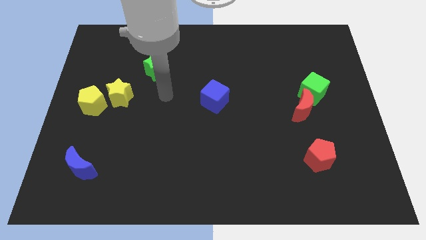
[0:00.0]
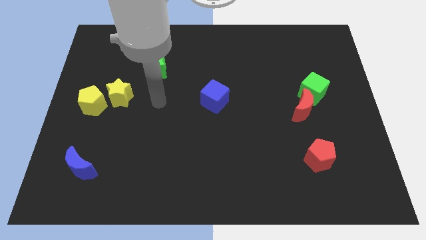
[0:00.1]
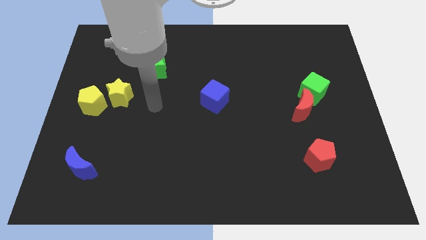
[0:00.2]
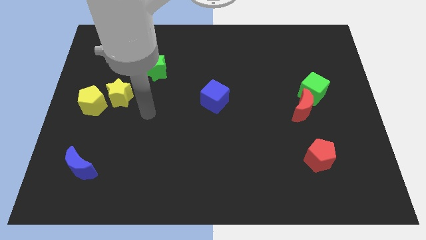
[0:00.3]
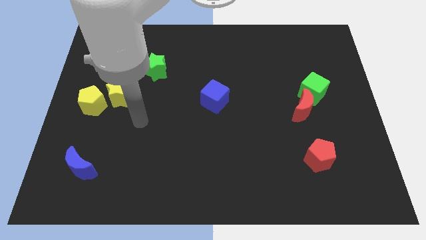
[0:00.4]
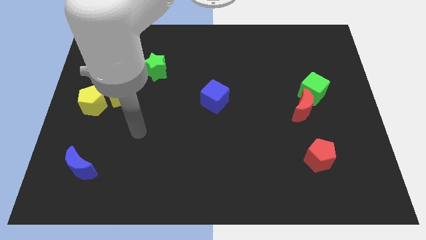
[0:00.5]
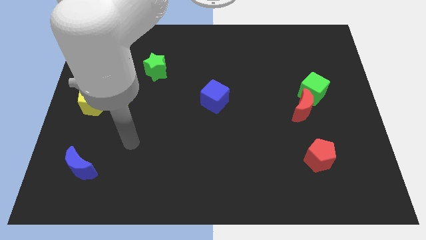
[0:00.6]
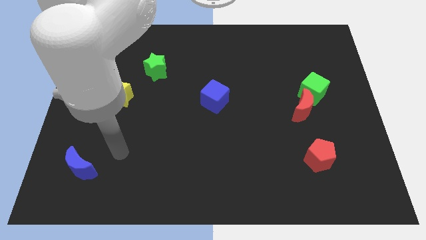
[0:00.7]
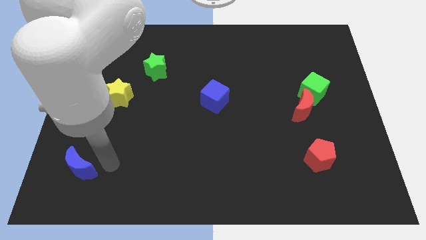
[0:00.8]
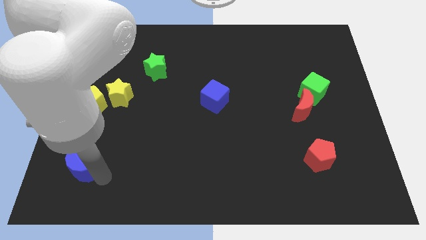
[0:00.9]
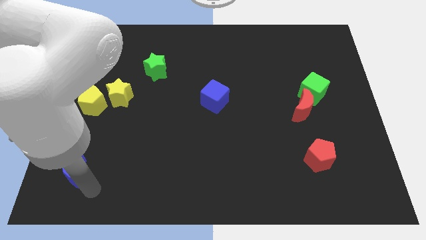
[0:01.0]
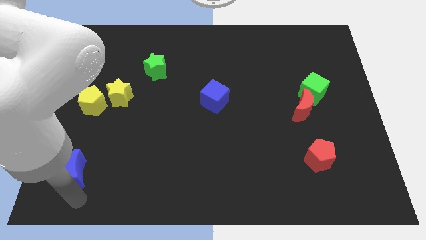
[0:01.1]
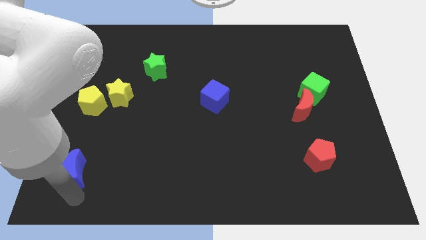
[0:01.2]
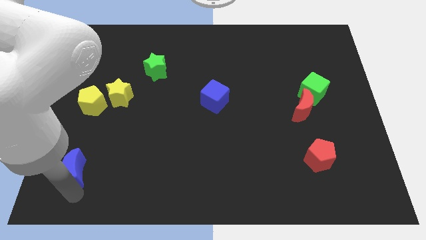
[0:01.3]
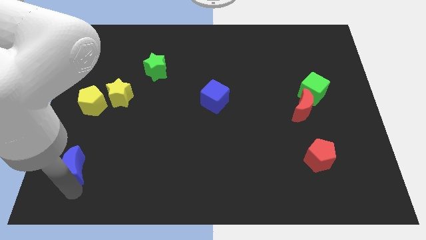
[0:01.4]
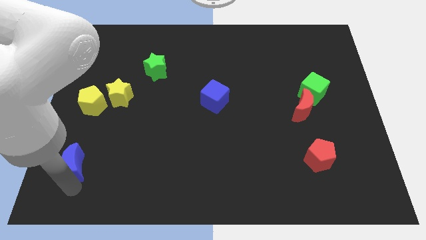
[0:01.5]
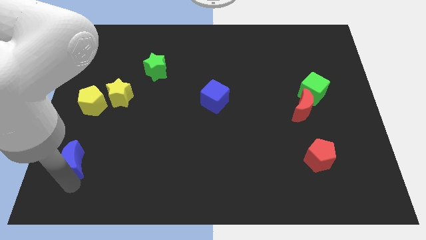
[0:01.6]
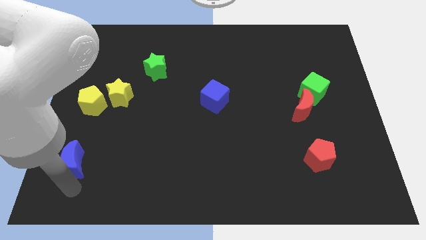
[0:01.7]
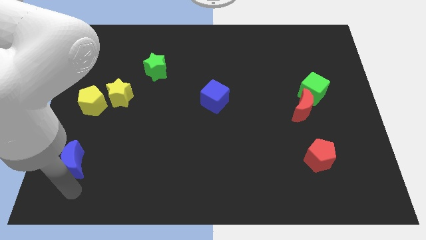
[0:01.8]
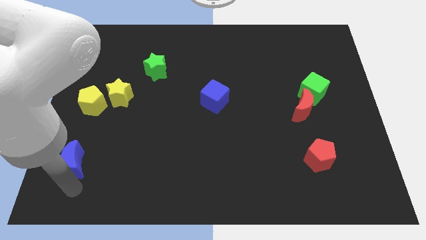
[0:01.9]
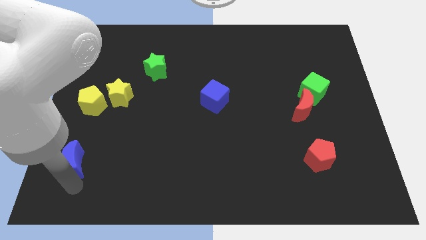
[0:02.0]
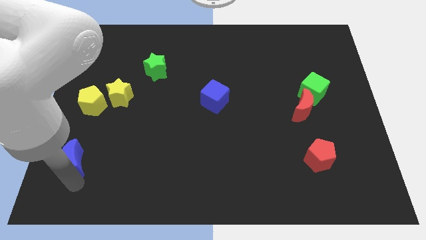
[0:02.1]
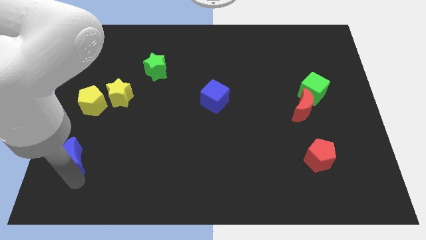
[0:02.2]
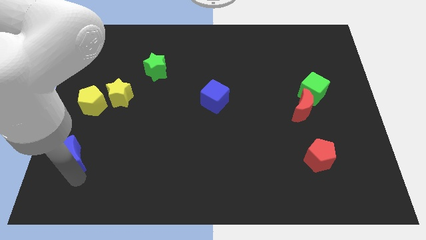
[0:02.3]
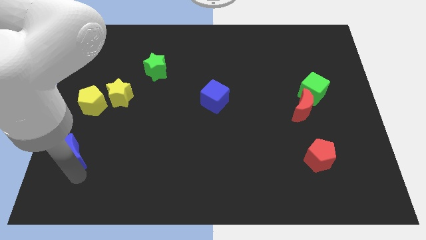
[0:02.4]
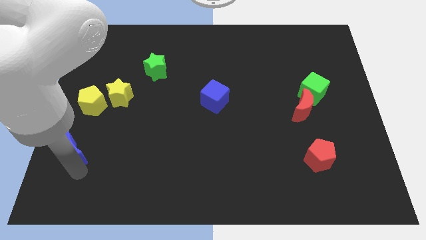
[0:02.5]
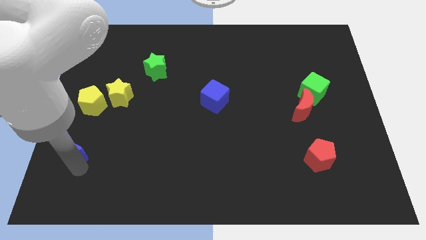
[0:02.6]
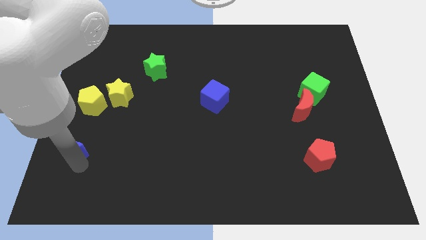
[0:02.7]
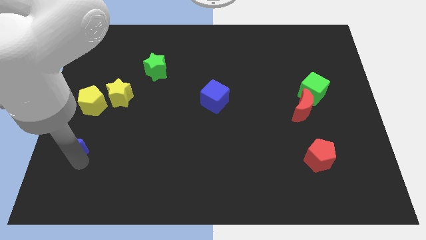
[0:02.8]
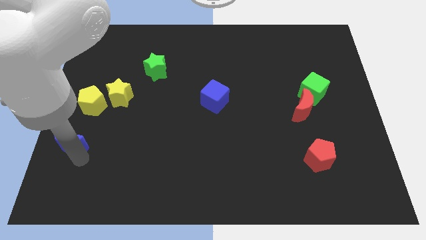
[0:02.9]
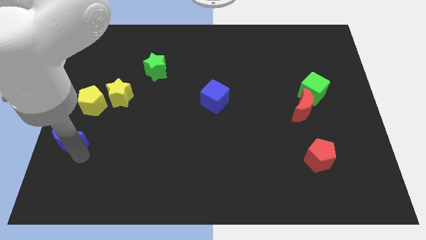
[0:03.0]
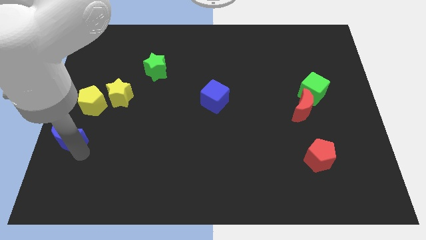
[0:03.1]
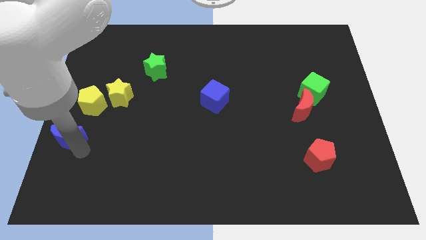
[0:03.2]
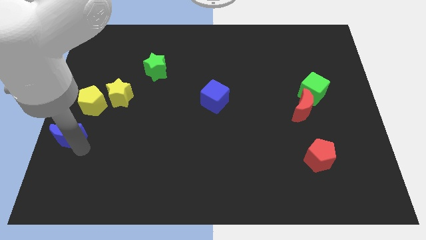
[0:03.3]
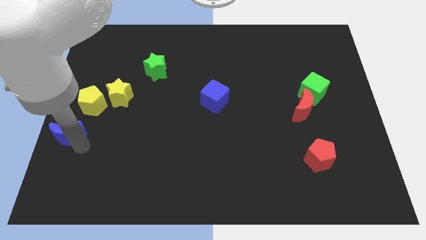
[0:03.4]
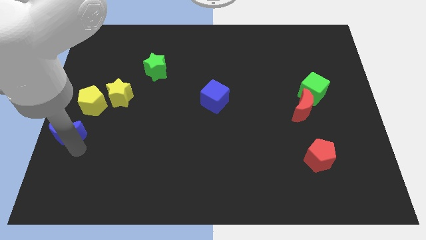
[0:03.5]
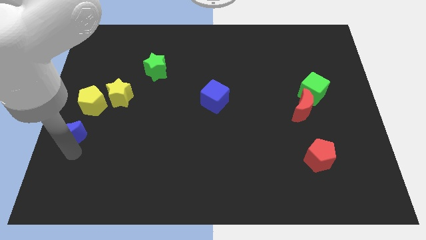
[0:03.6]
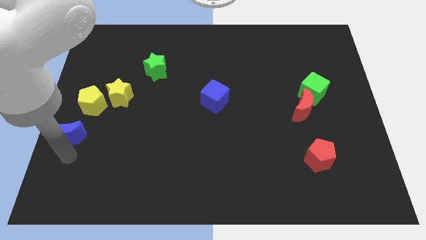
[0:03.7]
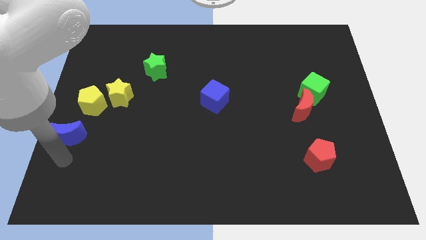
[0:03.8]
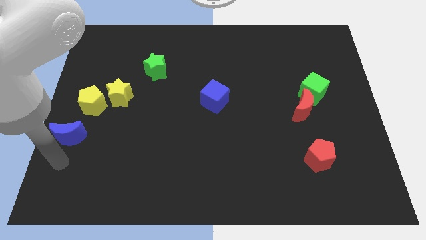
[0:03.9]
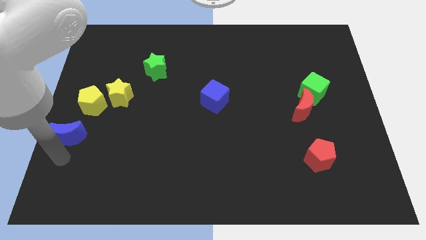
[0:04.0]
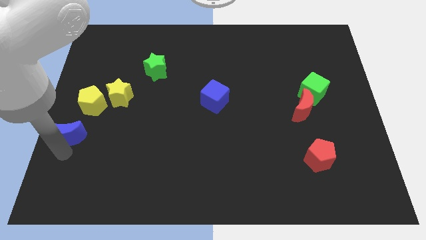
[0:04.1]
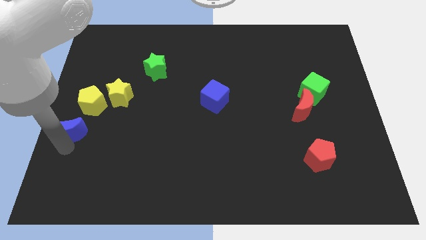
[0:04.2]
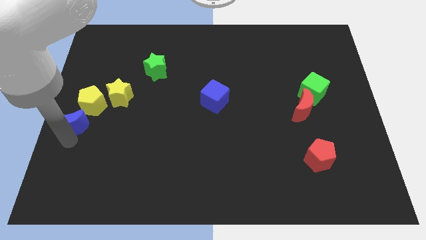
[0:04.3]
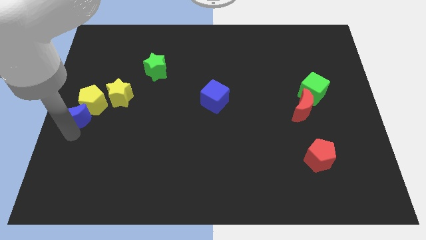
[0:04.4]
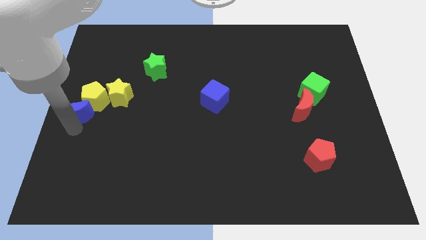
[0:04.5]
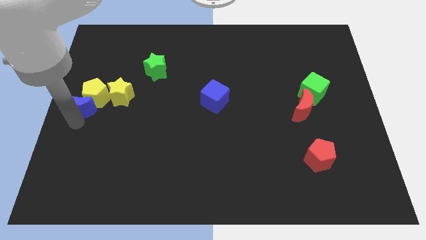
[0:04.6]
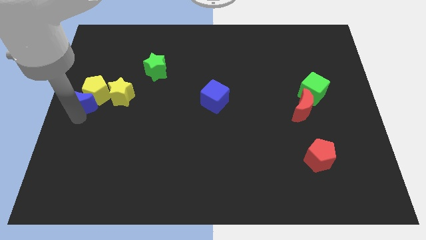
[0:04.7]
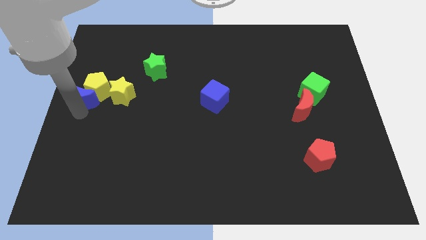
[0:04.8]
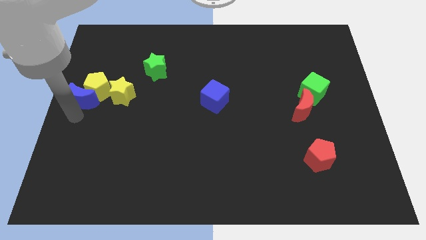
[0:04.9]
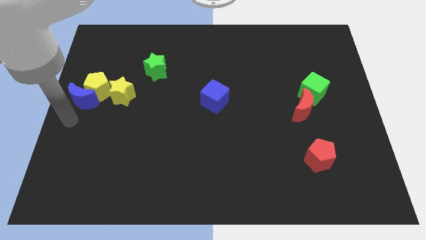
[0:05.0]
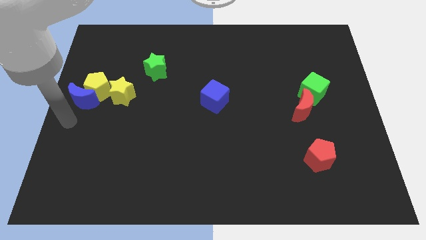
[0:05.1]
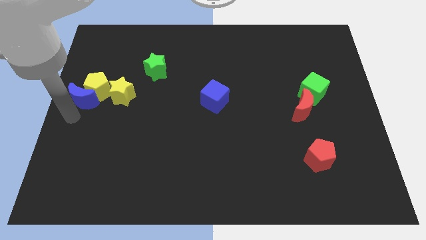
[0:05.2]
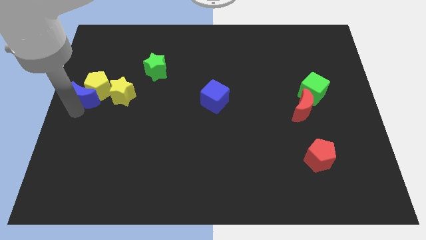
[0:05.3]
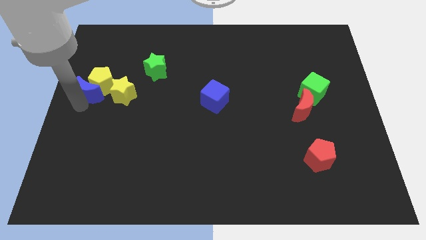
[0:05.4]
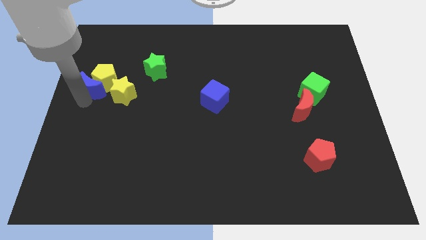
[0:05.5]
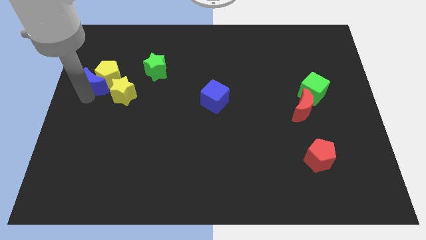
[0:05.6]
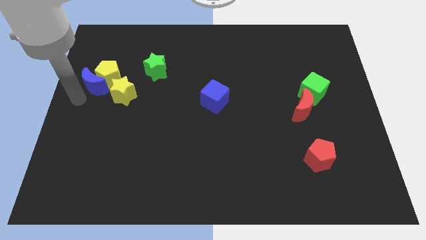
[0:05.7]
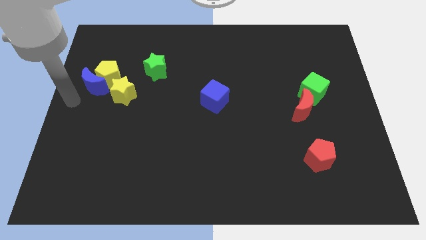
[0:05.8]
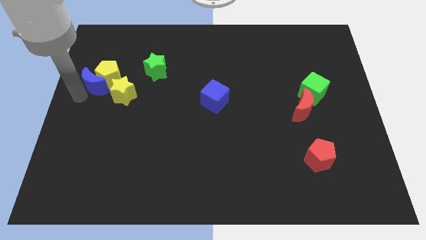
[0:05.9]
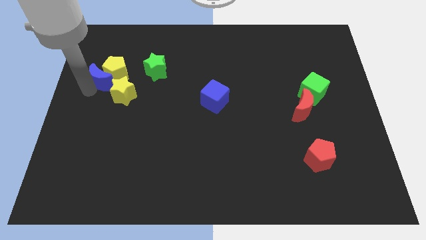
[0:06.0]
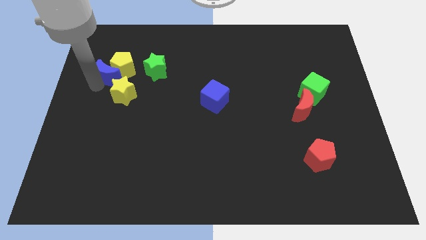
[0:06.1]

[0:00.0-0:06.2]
slide the blue moon above the yellow star

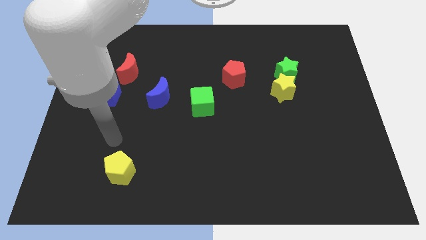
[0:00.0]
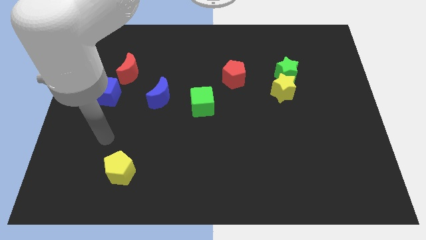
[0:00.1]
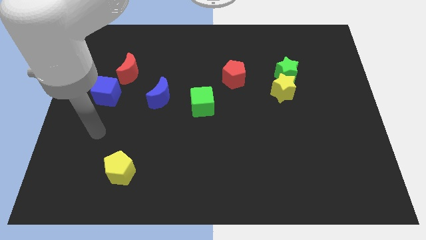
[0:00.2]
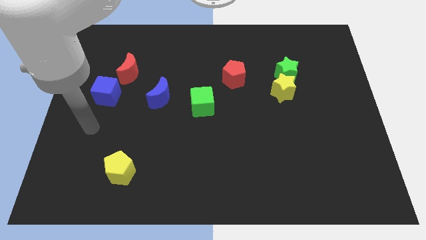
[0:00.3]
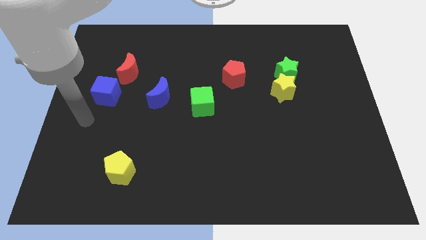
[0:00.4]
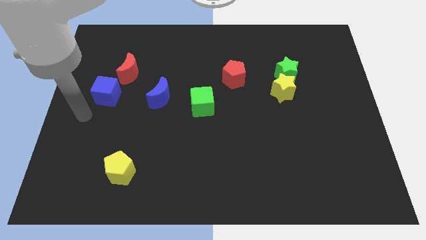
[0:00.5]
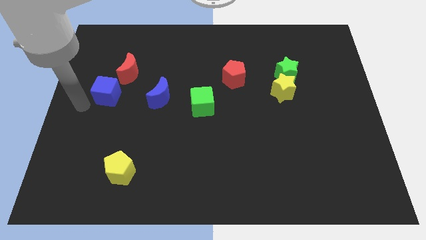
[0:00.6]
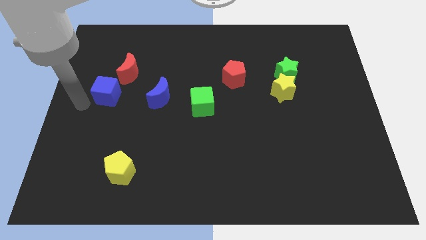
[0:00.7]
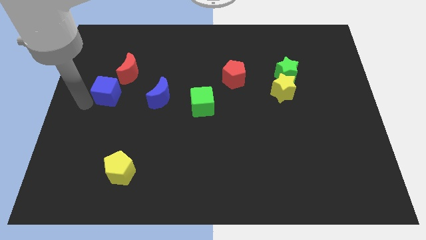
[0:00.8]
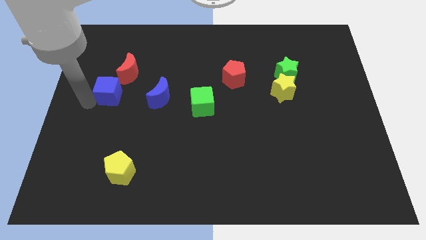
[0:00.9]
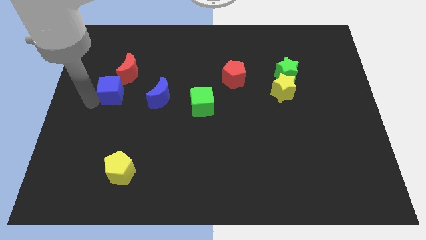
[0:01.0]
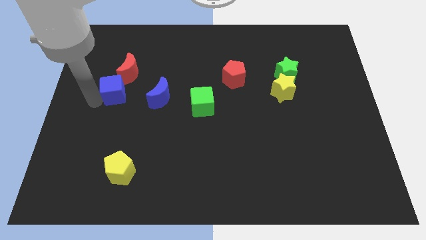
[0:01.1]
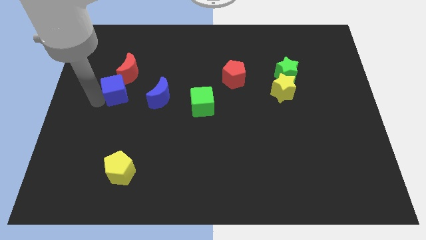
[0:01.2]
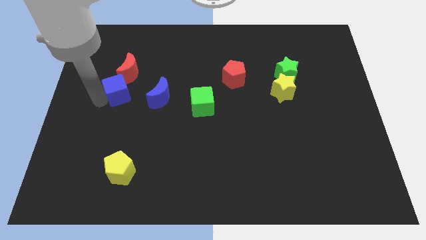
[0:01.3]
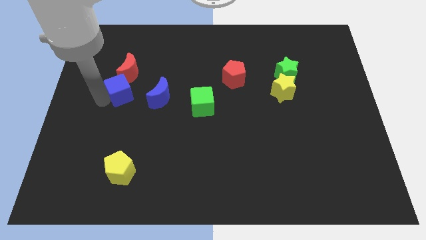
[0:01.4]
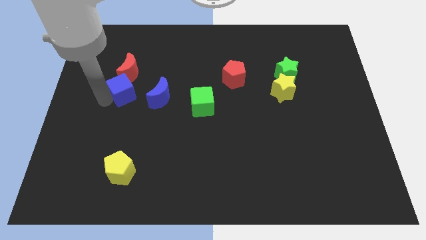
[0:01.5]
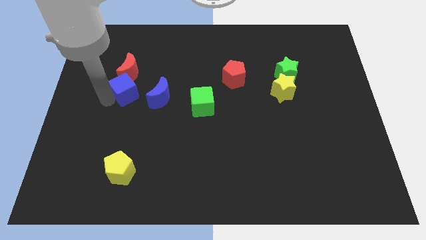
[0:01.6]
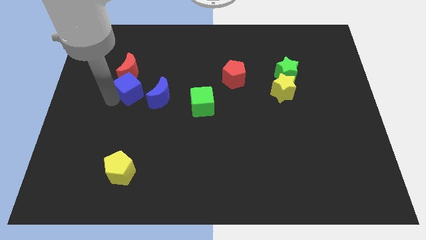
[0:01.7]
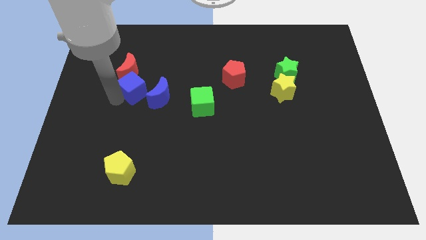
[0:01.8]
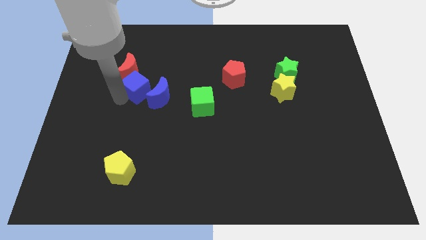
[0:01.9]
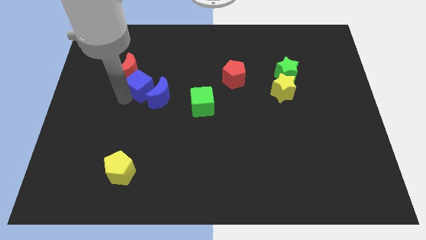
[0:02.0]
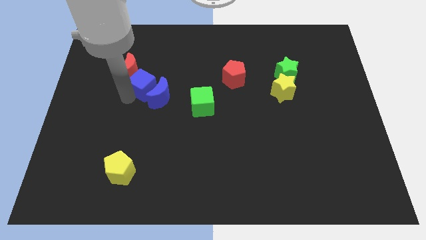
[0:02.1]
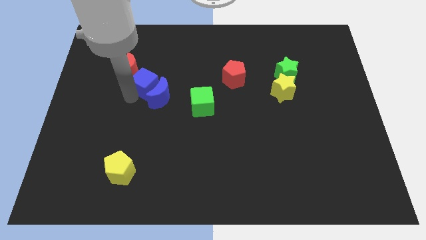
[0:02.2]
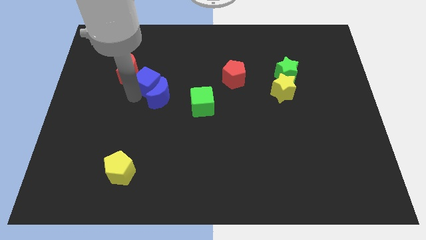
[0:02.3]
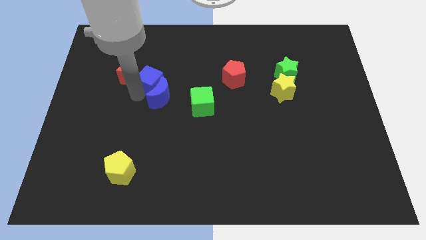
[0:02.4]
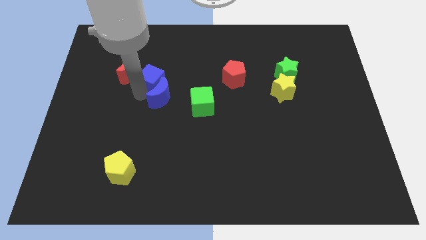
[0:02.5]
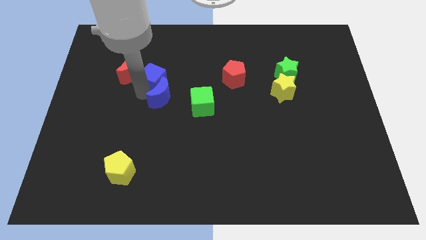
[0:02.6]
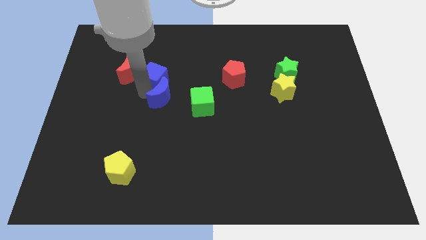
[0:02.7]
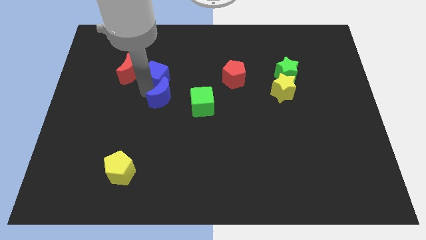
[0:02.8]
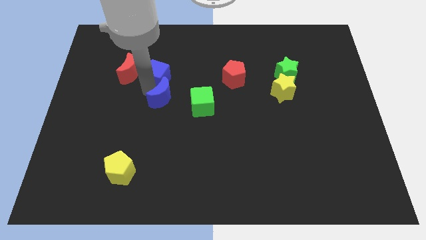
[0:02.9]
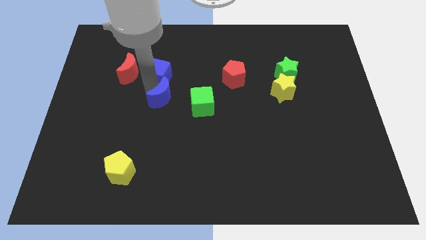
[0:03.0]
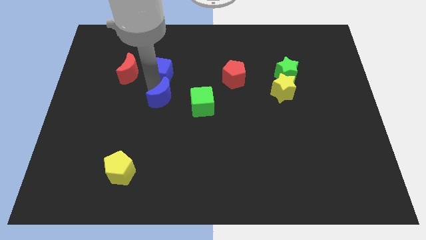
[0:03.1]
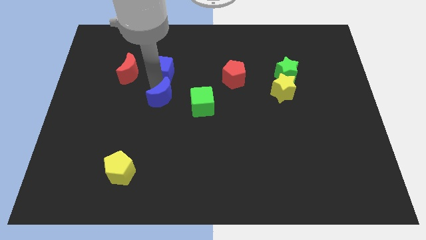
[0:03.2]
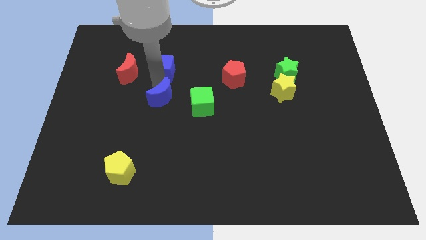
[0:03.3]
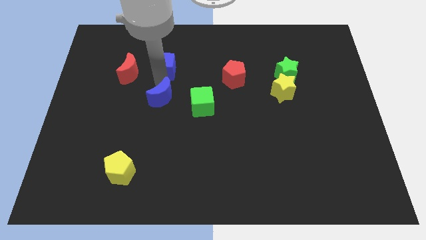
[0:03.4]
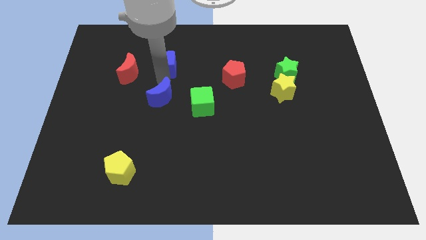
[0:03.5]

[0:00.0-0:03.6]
push the blue cube diagonally up and to the right of the red moon
